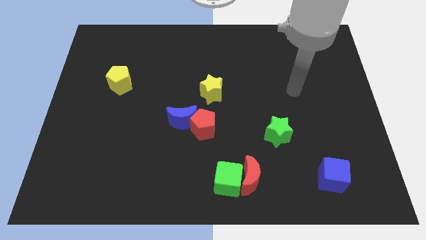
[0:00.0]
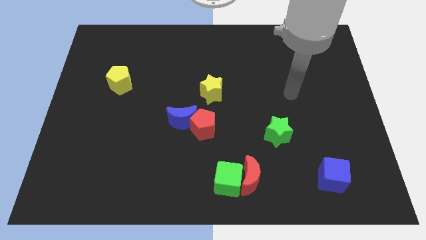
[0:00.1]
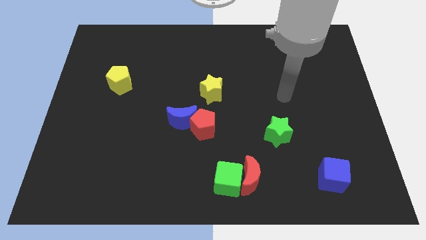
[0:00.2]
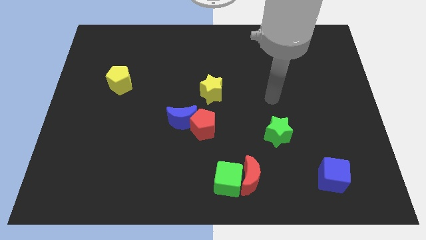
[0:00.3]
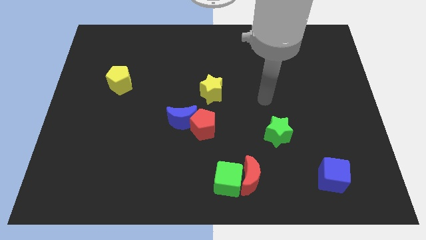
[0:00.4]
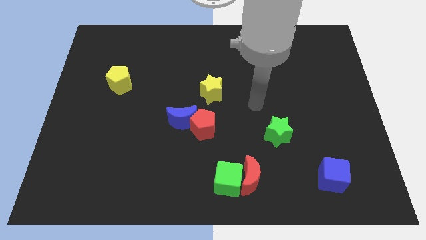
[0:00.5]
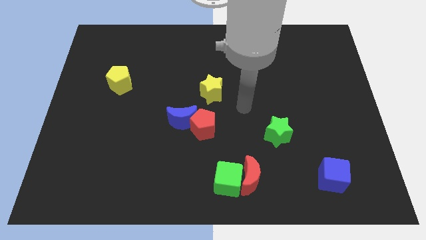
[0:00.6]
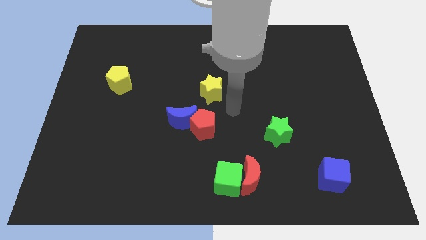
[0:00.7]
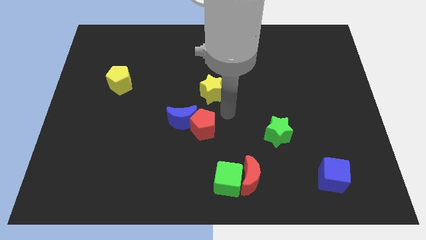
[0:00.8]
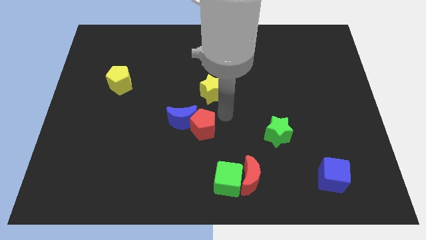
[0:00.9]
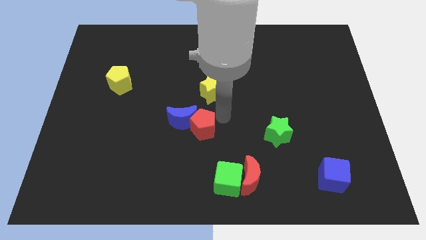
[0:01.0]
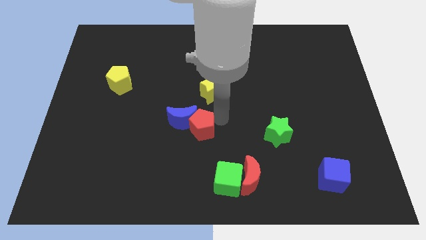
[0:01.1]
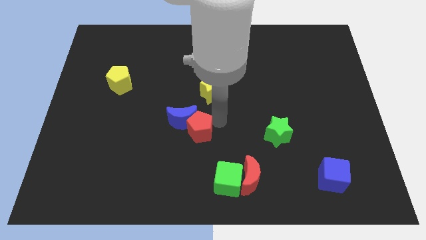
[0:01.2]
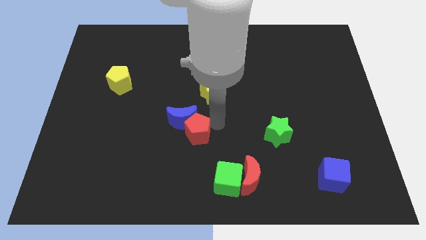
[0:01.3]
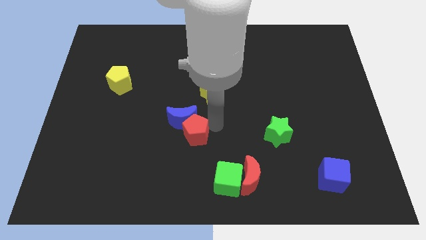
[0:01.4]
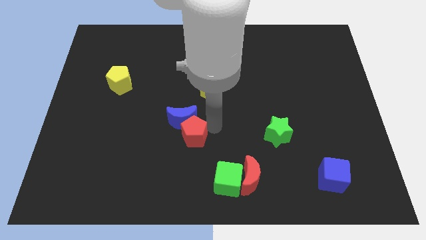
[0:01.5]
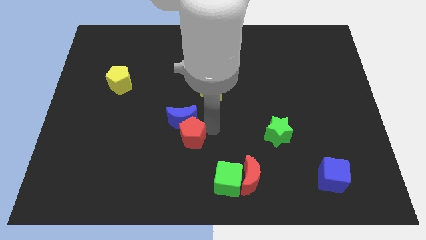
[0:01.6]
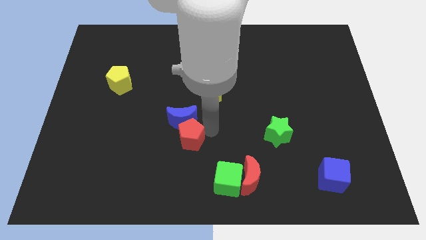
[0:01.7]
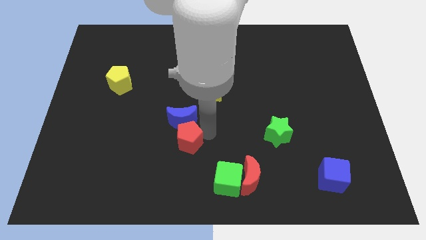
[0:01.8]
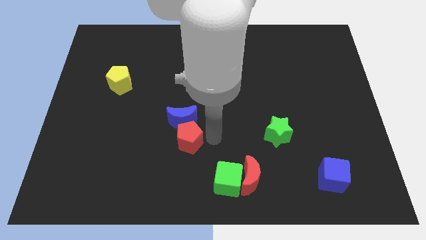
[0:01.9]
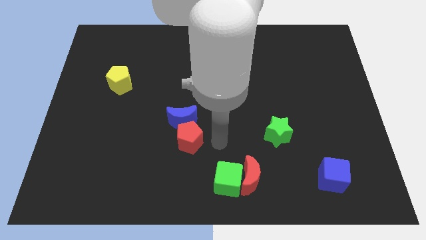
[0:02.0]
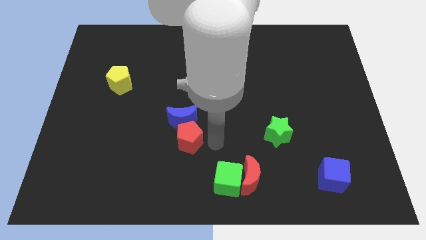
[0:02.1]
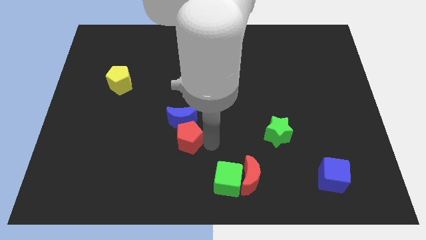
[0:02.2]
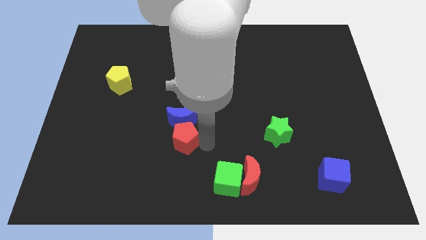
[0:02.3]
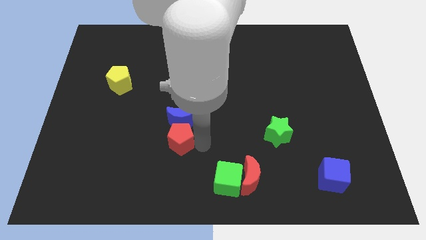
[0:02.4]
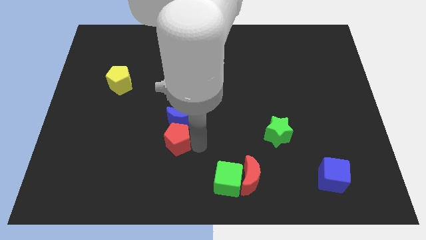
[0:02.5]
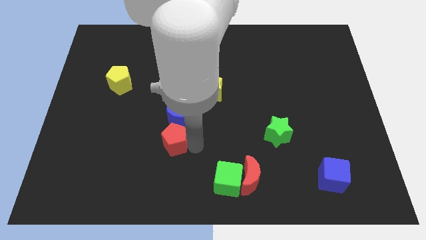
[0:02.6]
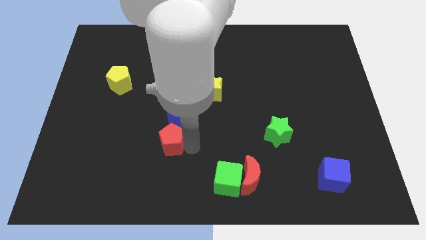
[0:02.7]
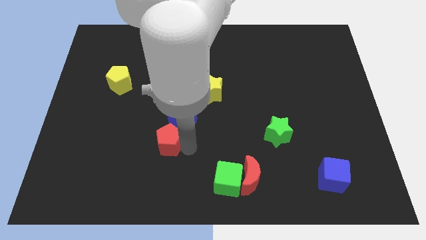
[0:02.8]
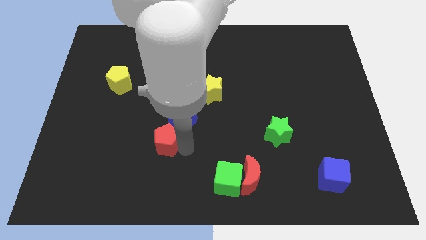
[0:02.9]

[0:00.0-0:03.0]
push the red pentagon slightly to the left

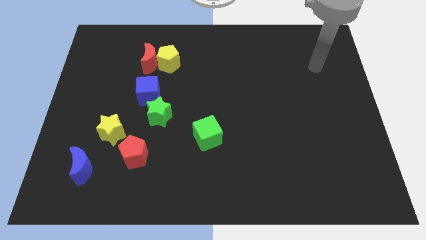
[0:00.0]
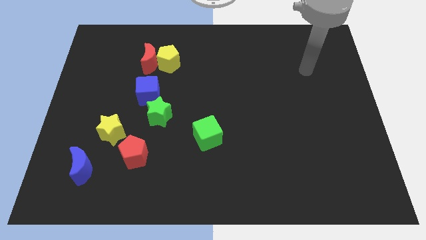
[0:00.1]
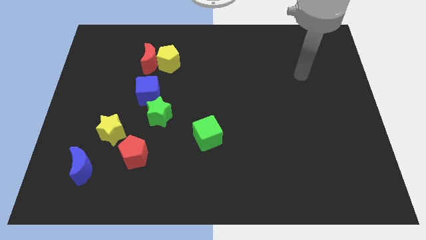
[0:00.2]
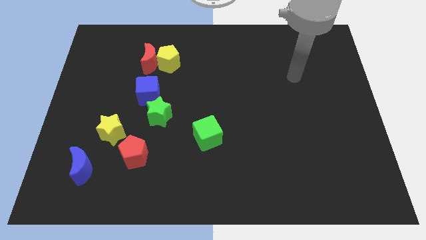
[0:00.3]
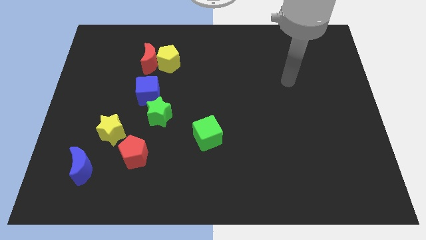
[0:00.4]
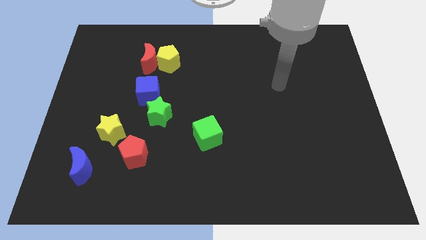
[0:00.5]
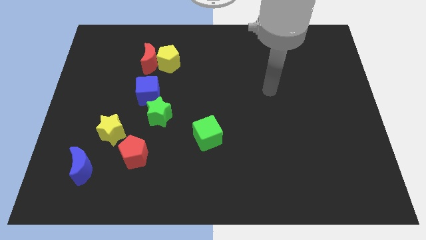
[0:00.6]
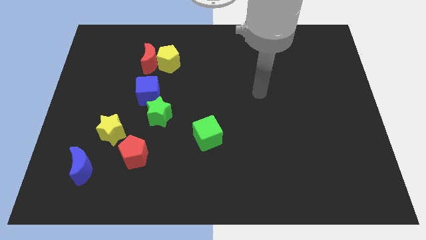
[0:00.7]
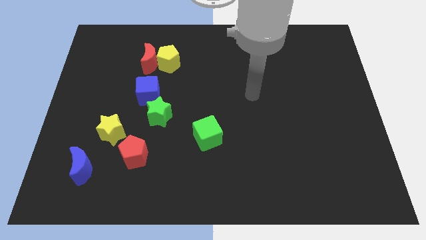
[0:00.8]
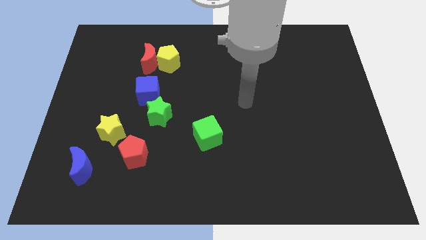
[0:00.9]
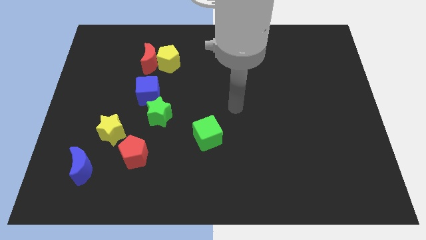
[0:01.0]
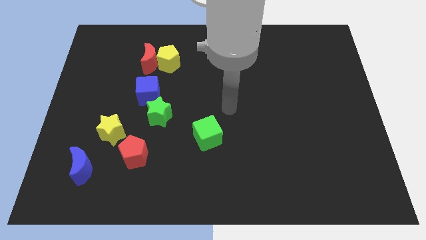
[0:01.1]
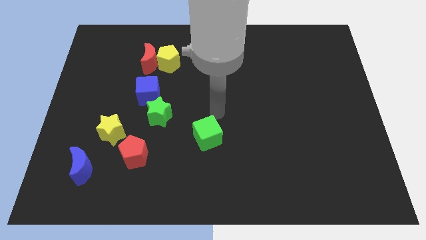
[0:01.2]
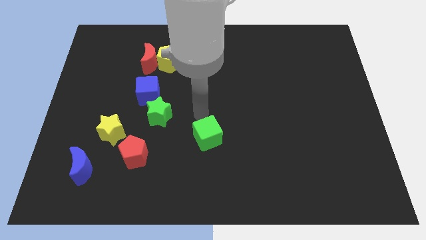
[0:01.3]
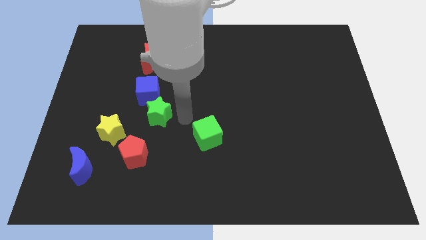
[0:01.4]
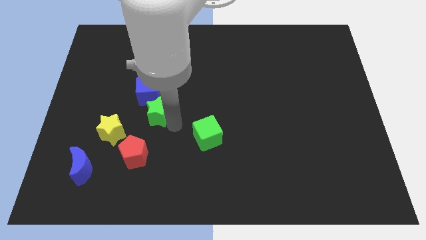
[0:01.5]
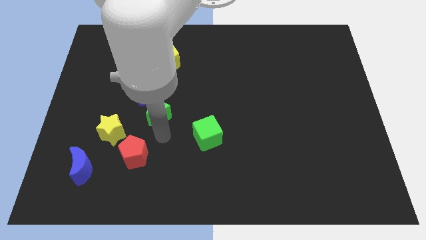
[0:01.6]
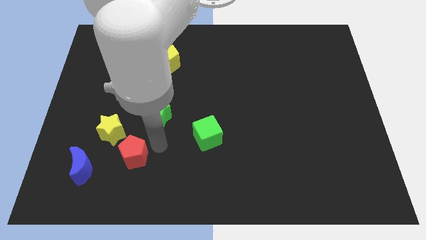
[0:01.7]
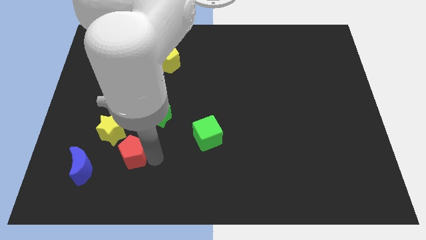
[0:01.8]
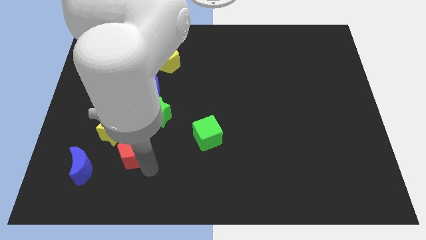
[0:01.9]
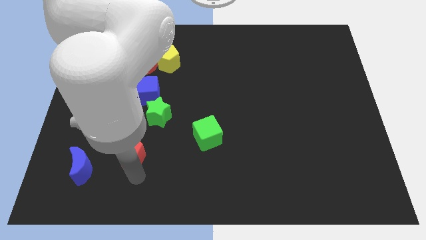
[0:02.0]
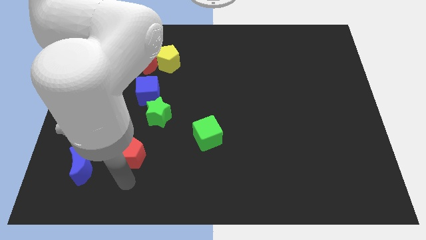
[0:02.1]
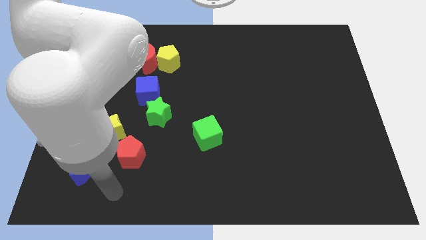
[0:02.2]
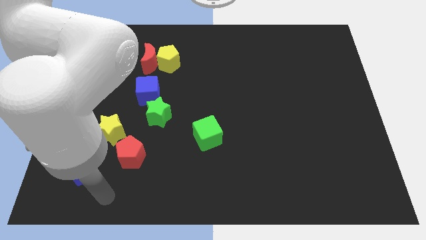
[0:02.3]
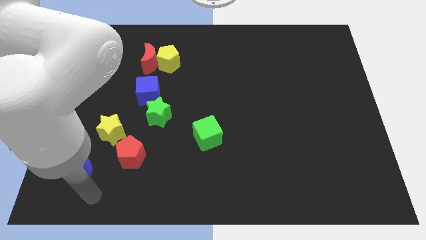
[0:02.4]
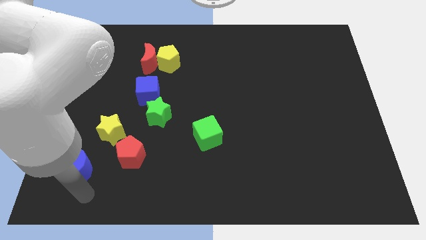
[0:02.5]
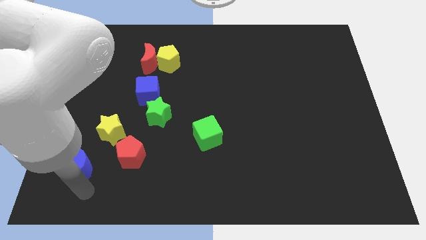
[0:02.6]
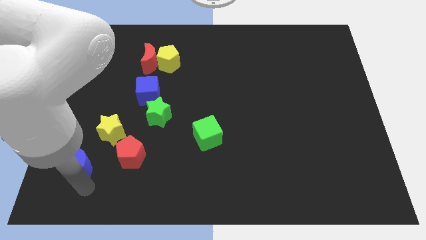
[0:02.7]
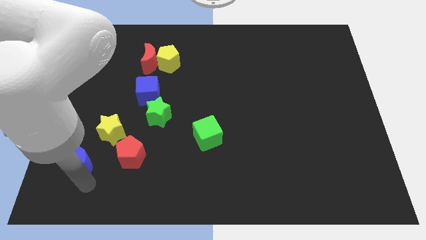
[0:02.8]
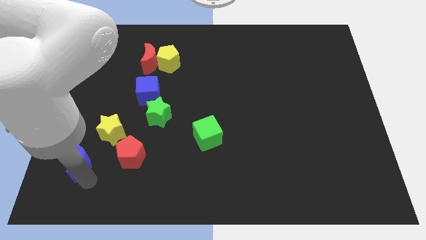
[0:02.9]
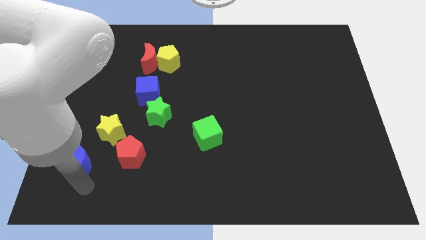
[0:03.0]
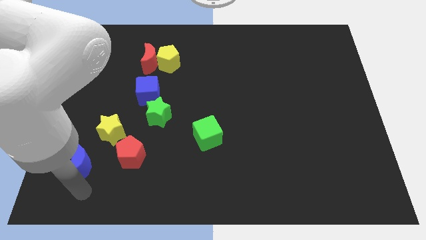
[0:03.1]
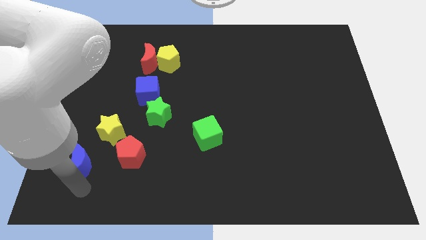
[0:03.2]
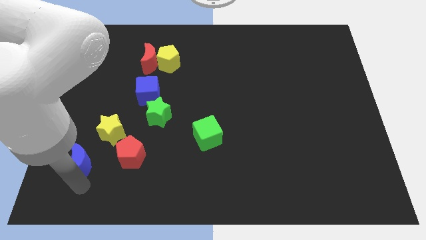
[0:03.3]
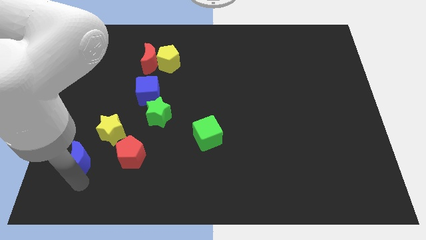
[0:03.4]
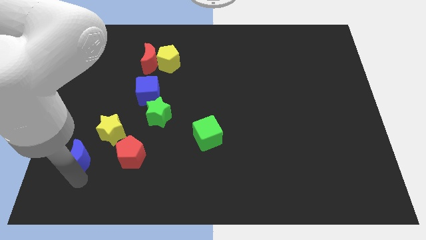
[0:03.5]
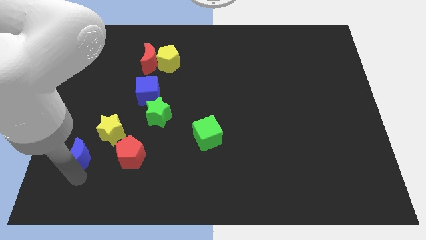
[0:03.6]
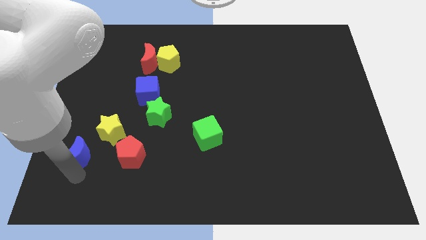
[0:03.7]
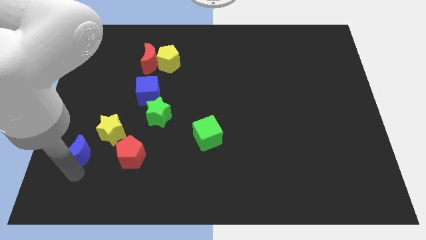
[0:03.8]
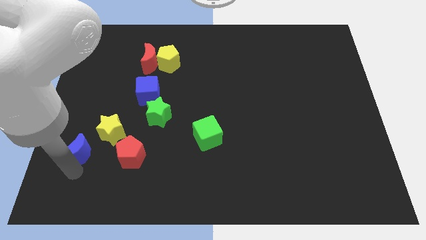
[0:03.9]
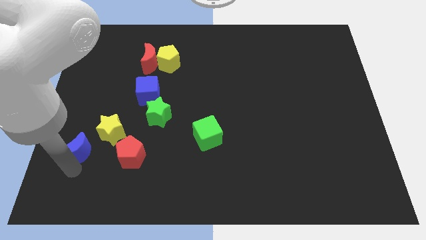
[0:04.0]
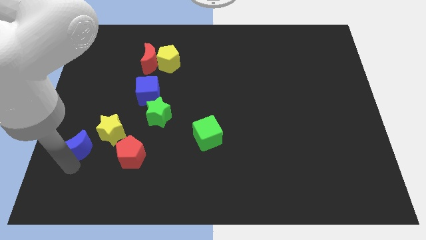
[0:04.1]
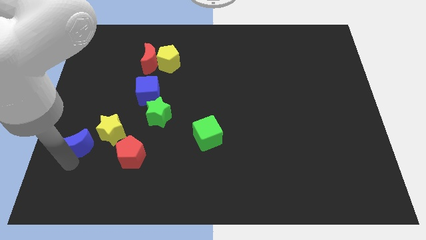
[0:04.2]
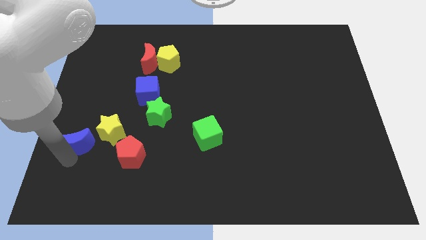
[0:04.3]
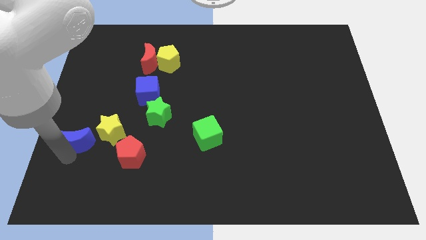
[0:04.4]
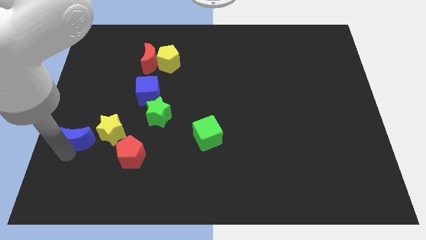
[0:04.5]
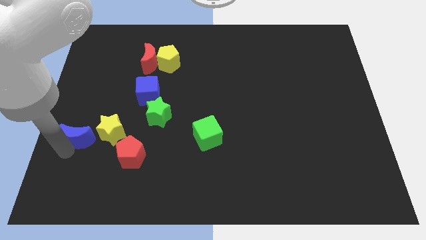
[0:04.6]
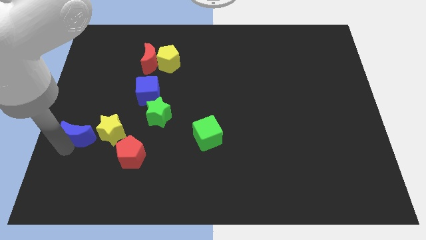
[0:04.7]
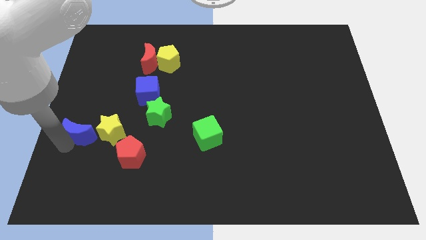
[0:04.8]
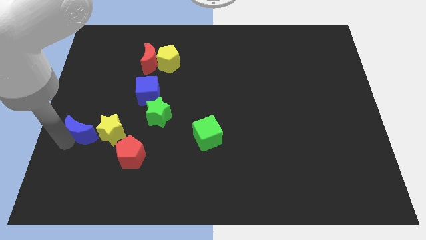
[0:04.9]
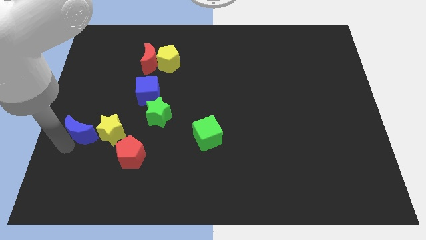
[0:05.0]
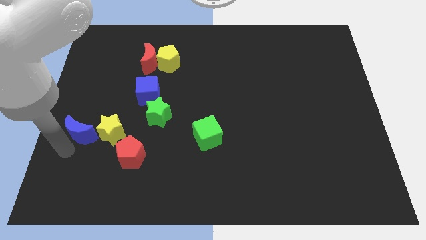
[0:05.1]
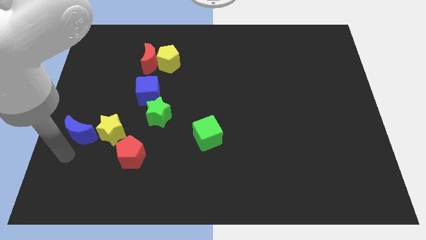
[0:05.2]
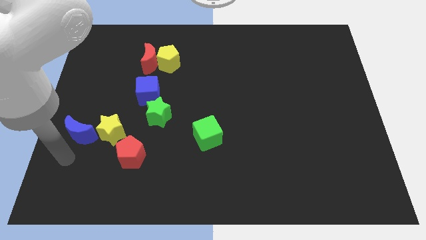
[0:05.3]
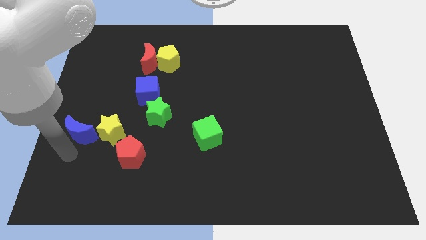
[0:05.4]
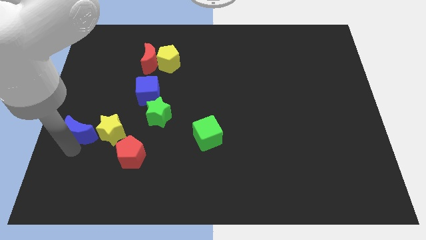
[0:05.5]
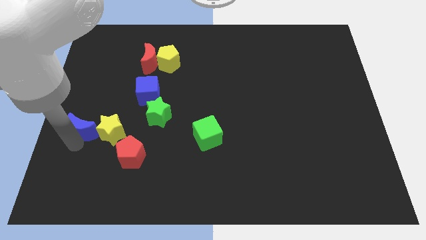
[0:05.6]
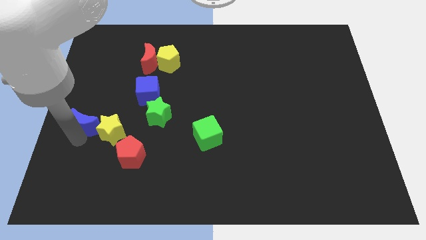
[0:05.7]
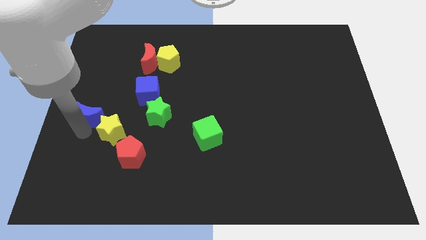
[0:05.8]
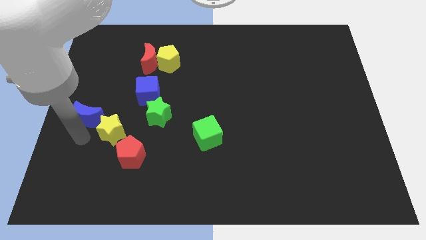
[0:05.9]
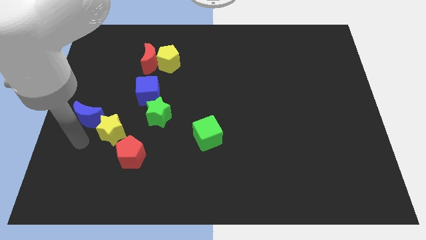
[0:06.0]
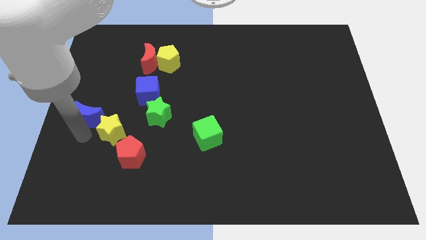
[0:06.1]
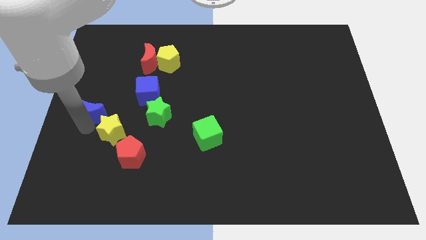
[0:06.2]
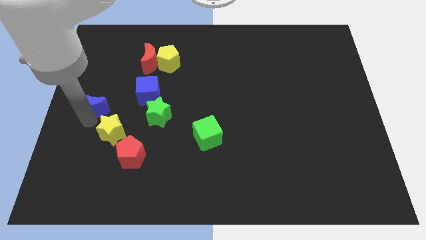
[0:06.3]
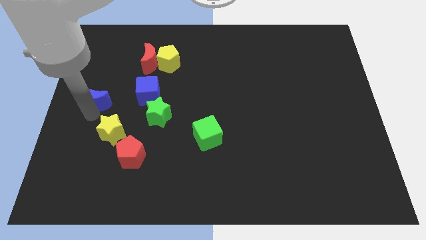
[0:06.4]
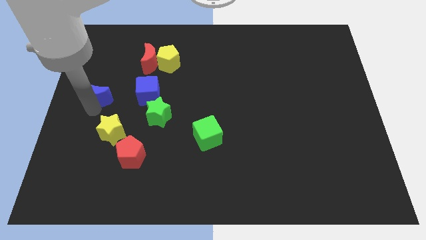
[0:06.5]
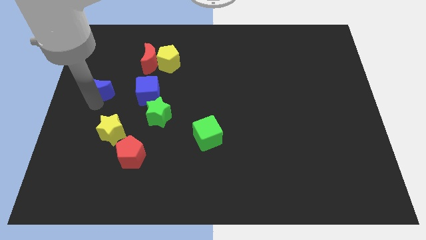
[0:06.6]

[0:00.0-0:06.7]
slide the blue moon up
